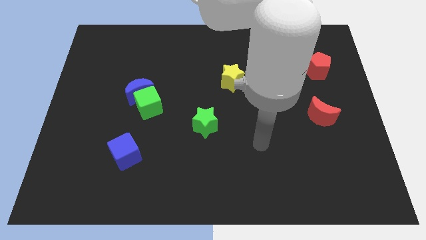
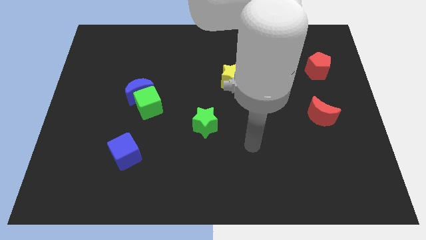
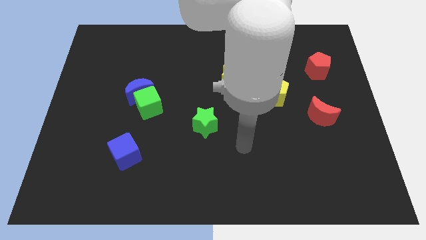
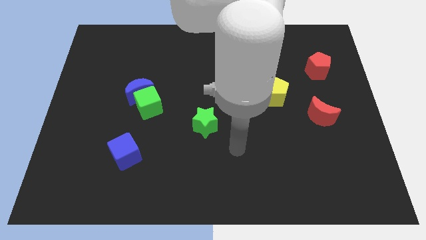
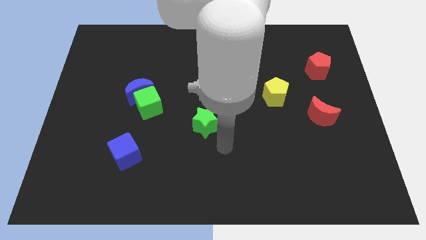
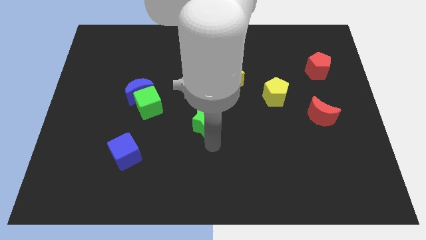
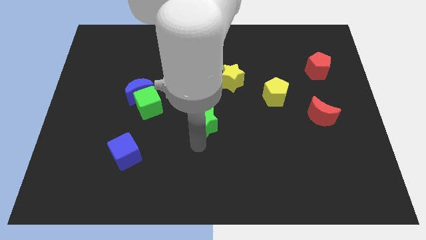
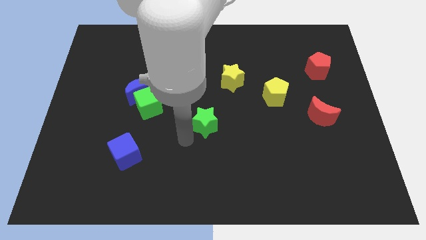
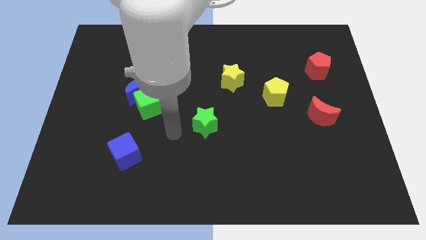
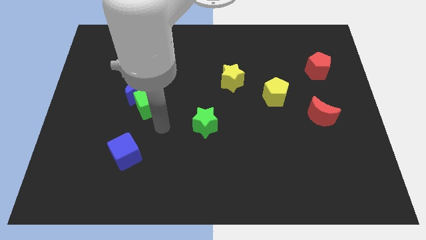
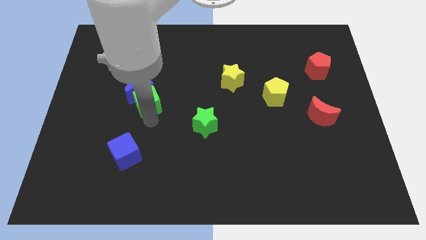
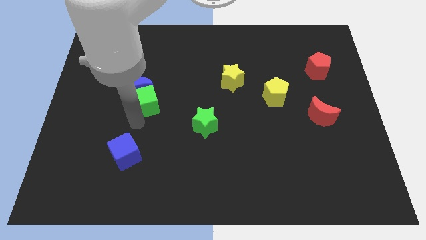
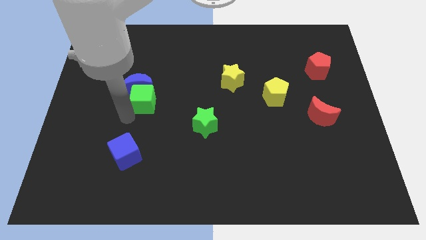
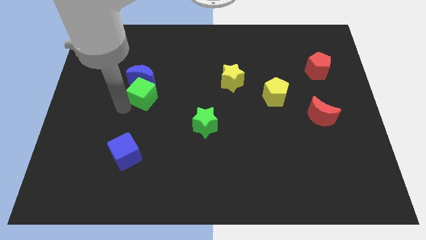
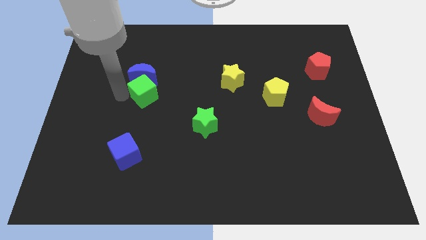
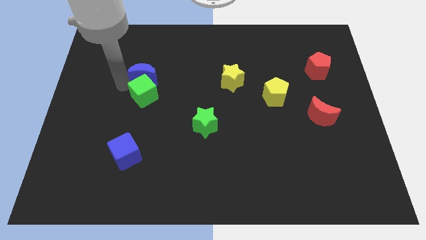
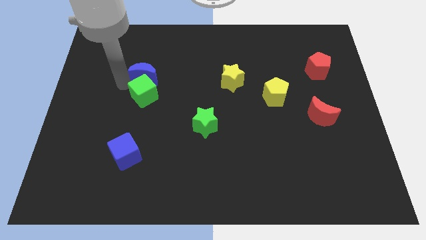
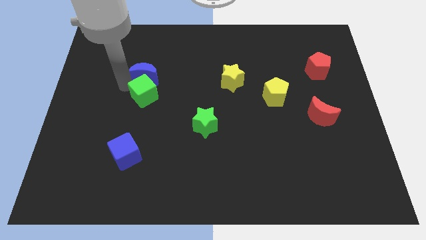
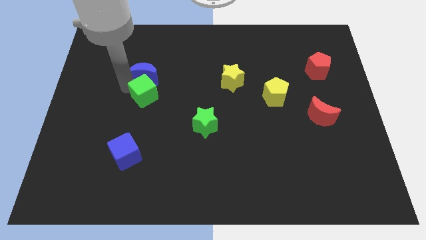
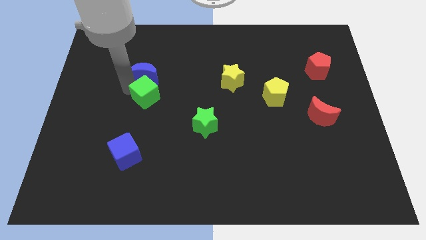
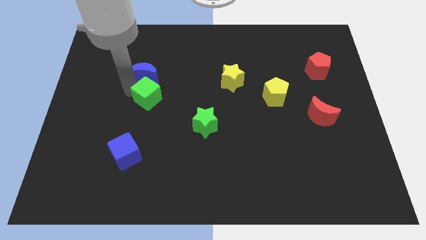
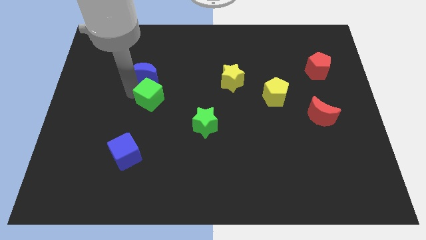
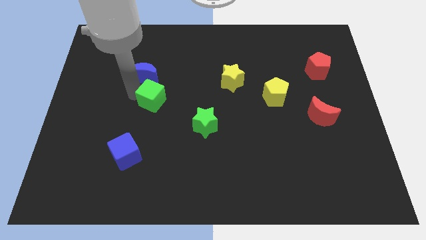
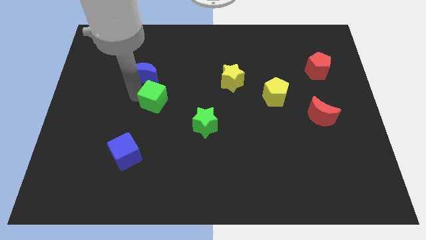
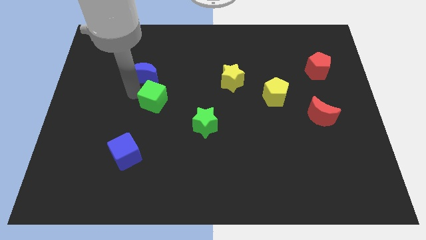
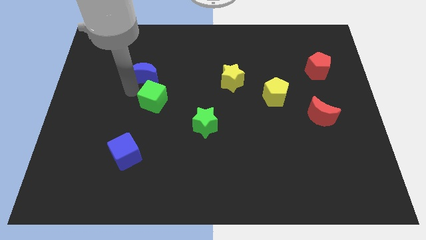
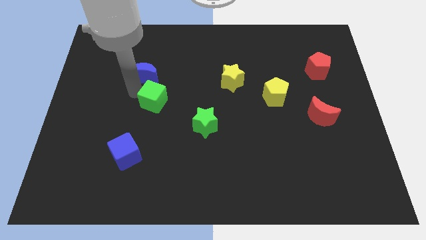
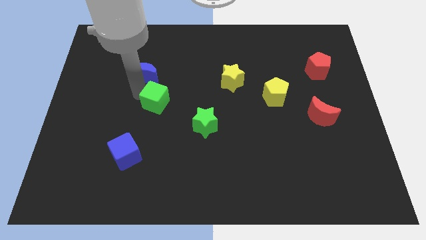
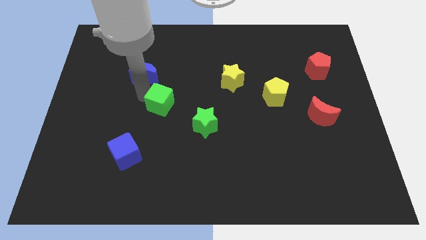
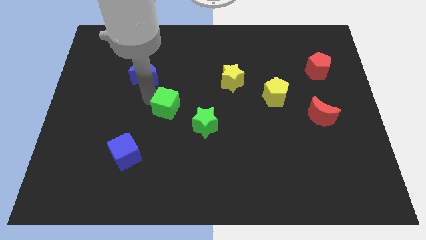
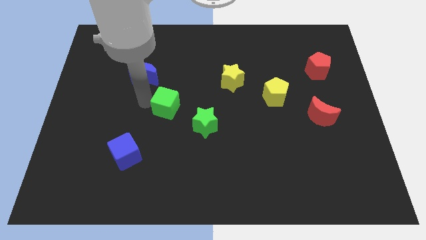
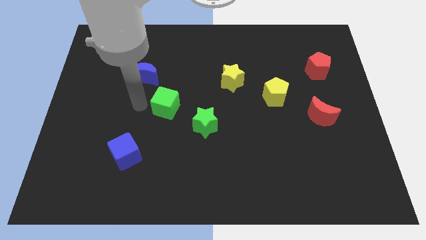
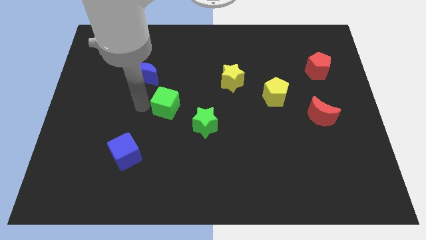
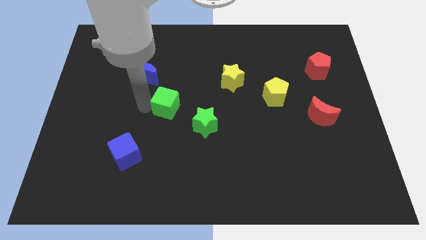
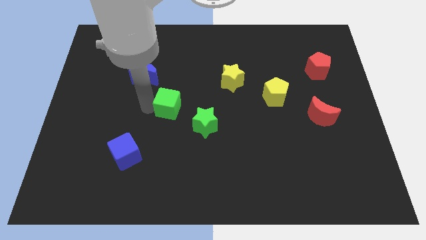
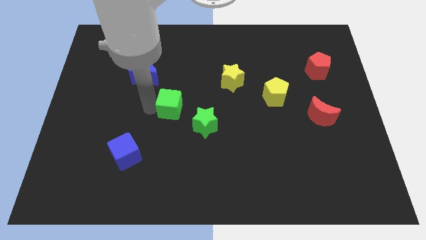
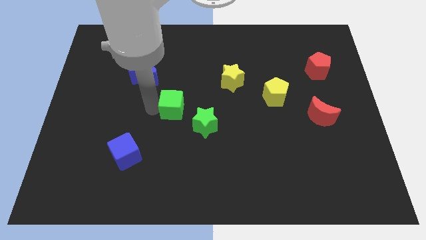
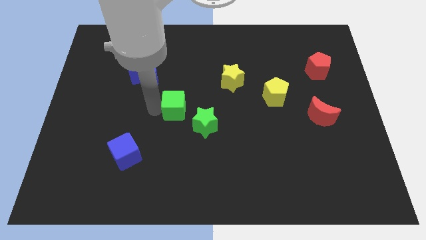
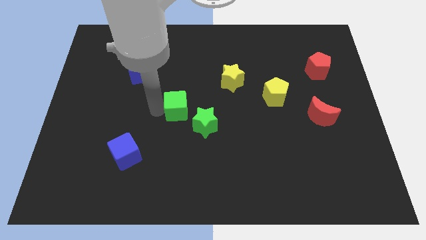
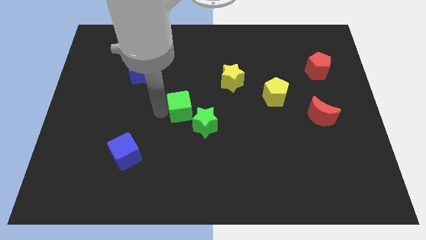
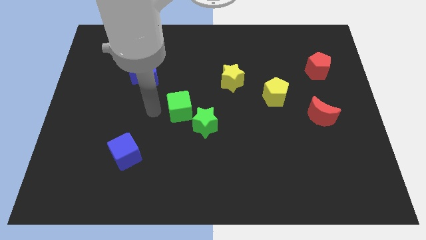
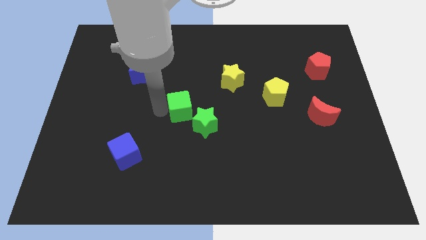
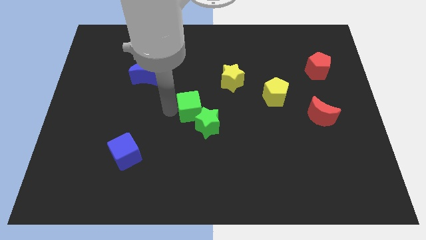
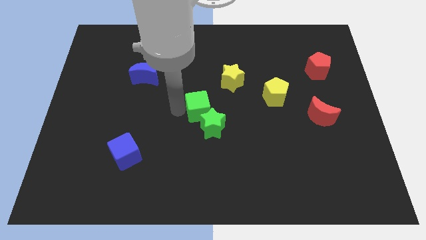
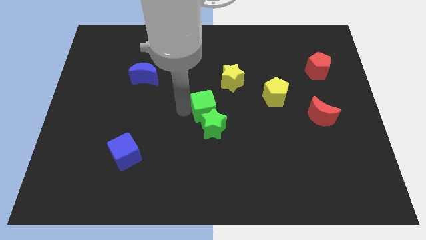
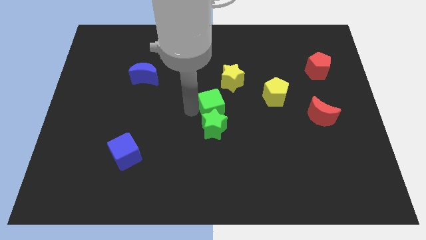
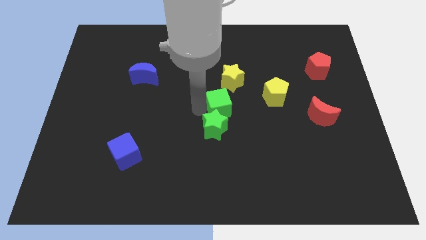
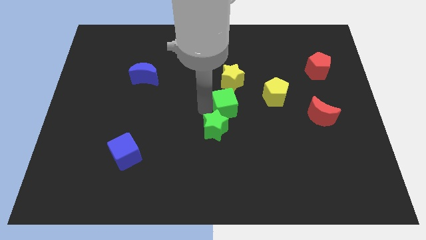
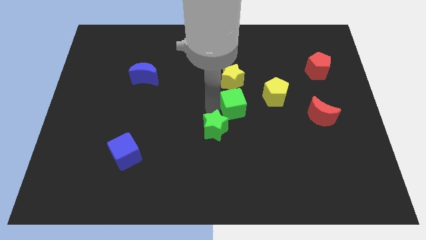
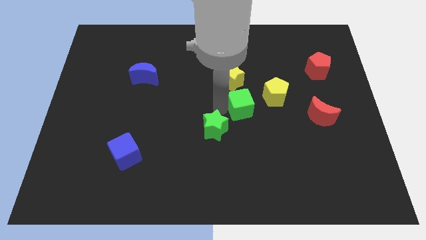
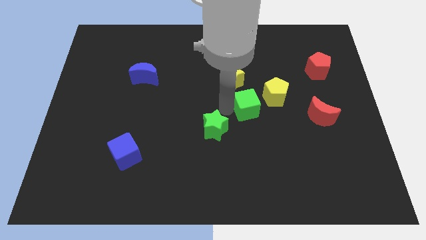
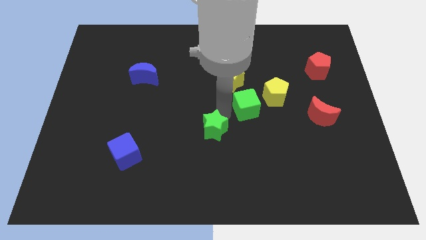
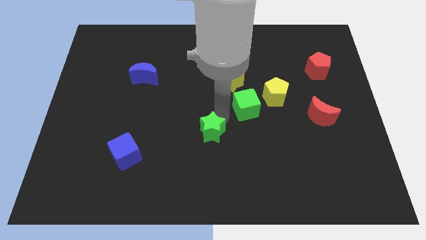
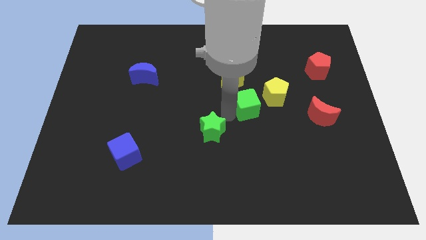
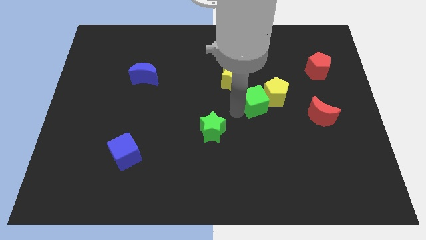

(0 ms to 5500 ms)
put the green cube to the yellow pentagon

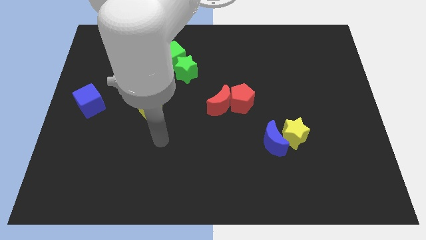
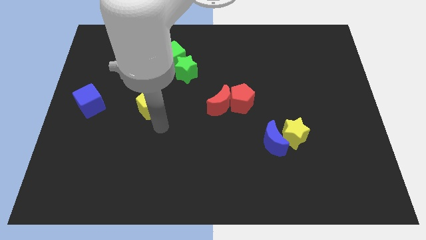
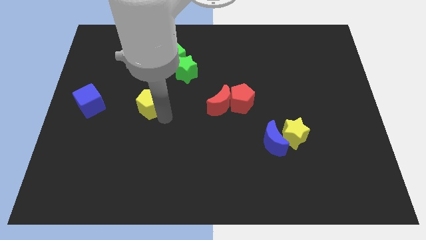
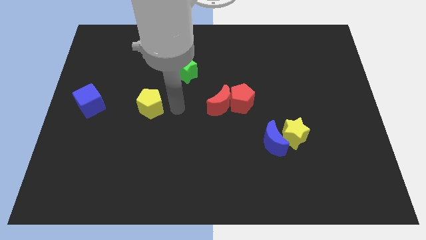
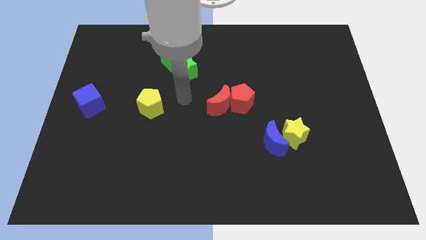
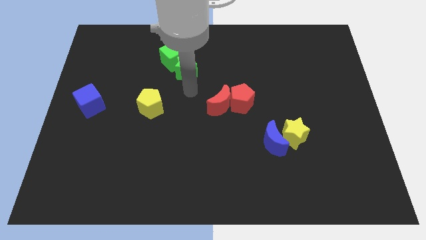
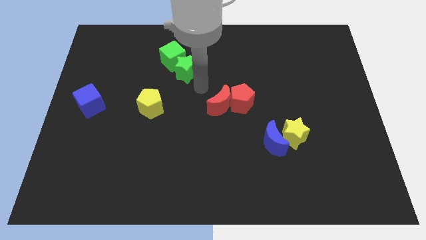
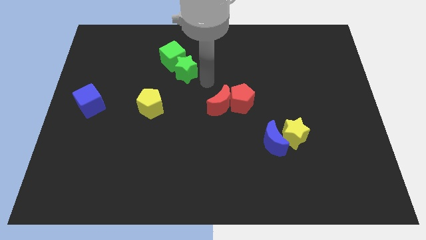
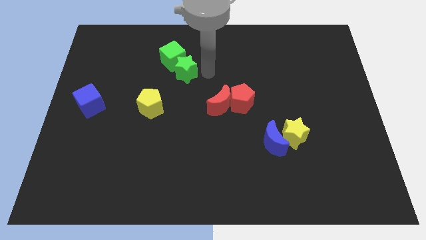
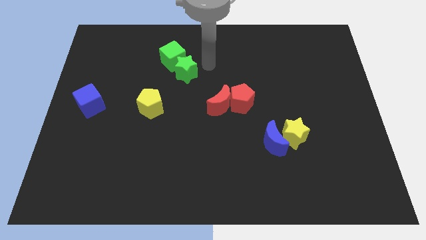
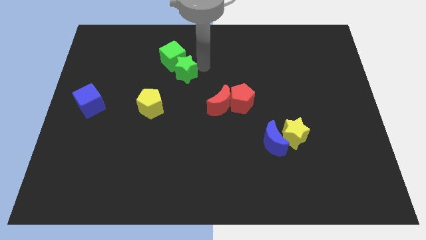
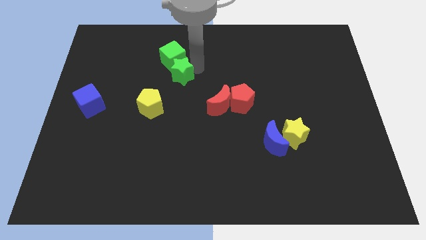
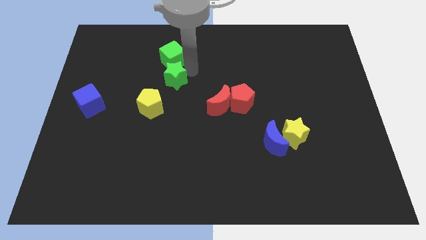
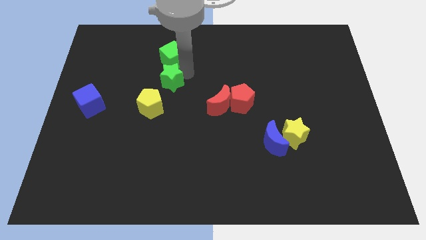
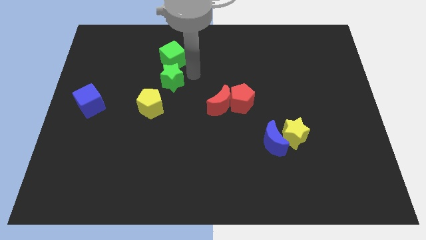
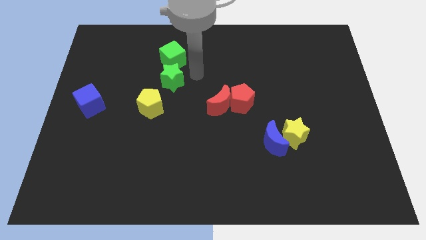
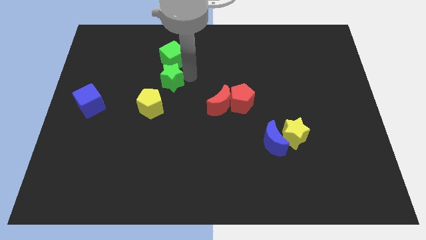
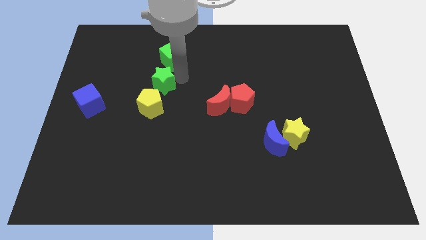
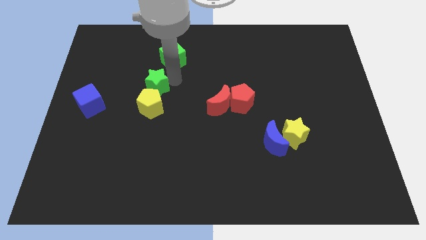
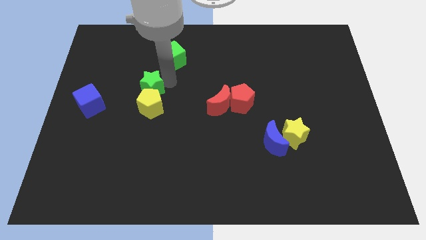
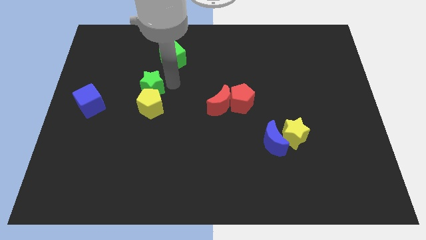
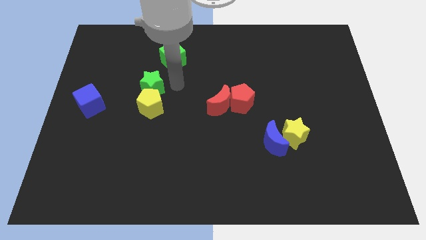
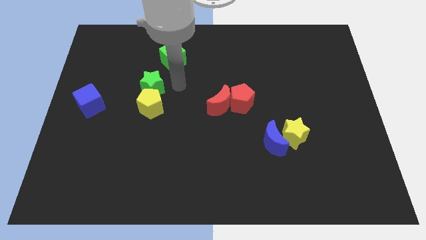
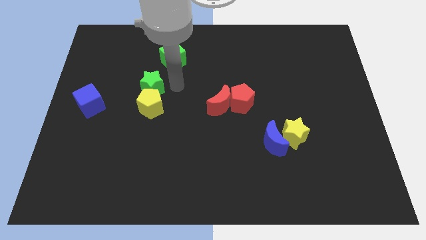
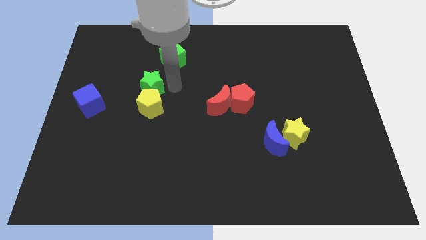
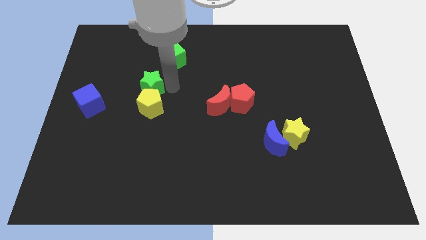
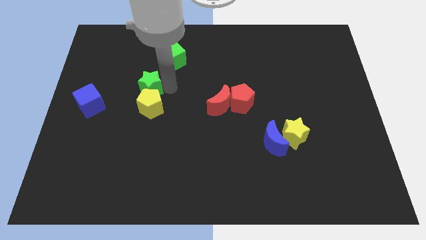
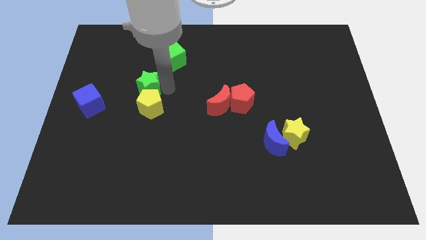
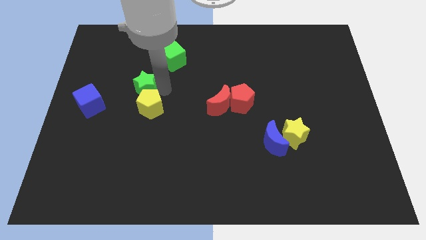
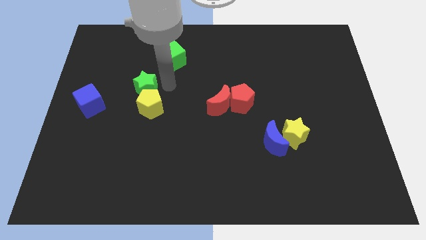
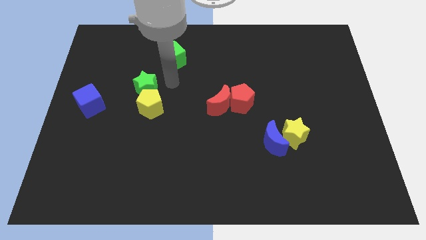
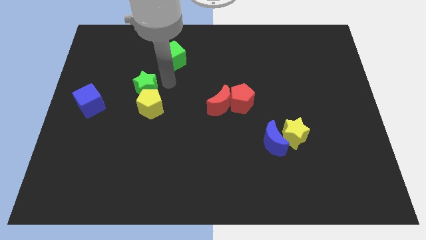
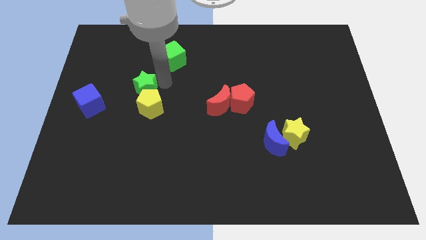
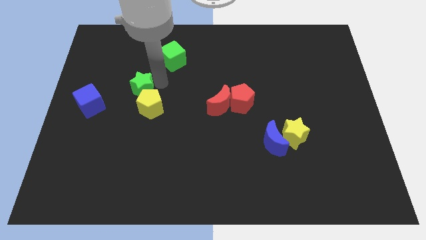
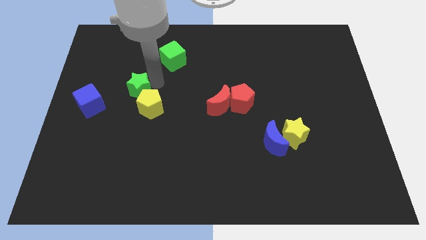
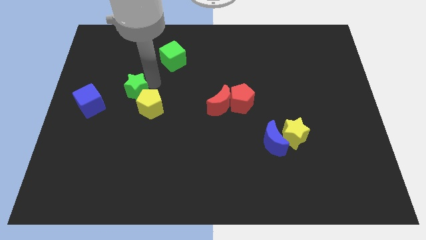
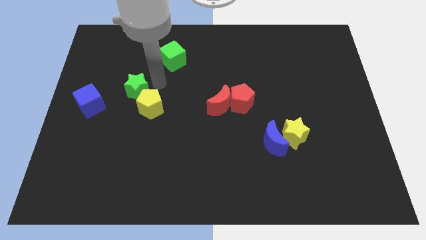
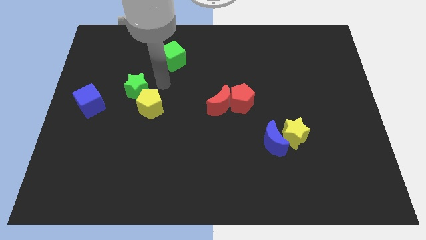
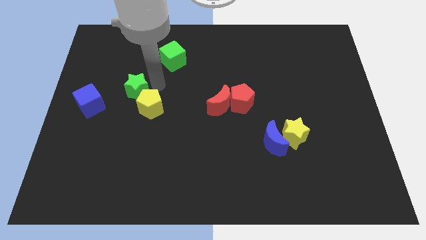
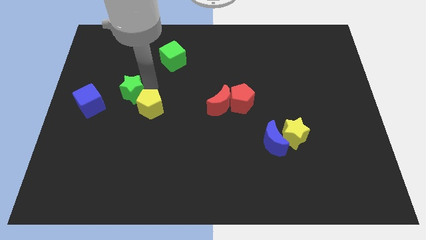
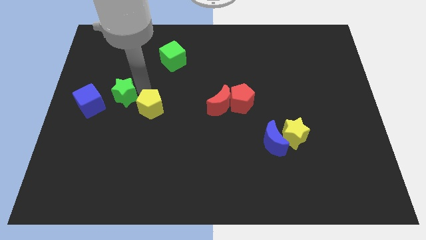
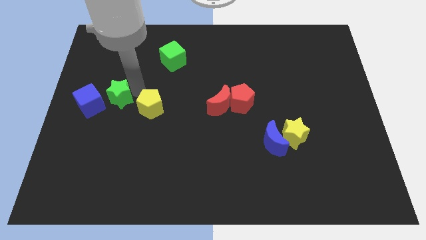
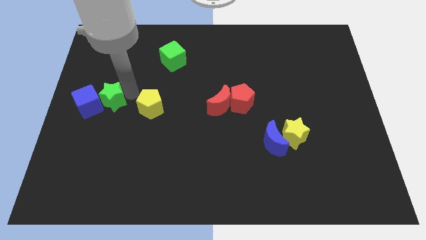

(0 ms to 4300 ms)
push the green star to the blue cube
